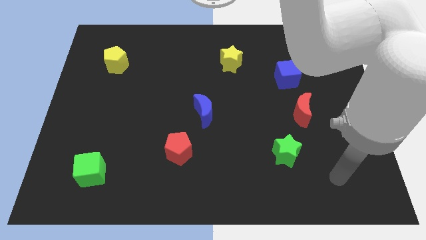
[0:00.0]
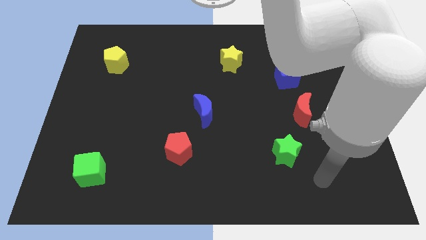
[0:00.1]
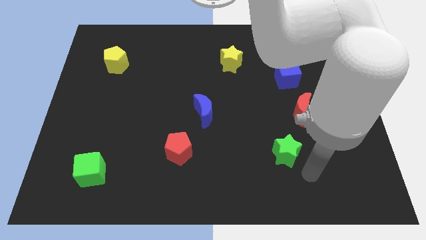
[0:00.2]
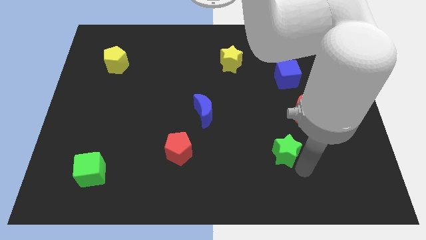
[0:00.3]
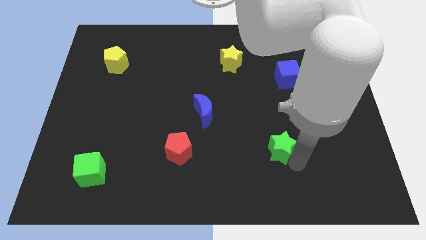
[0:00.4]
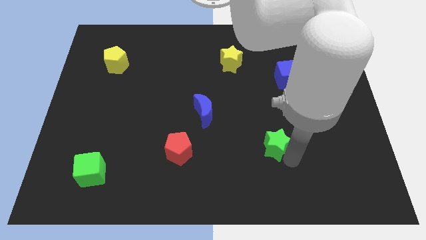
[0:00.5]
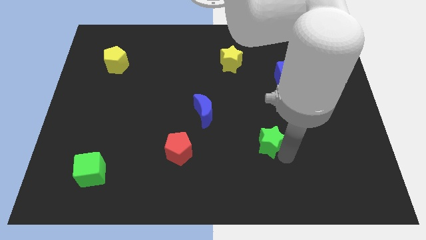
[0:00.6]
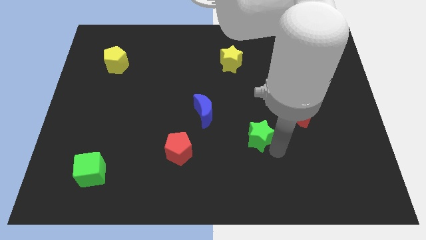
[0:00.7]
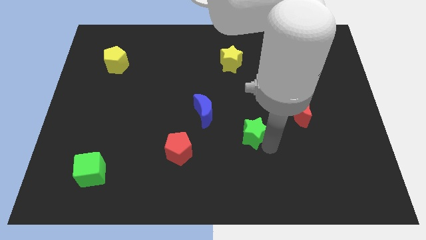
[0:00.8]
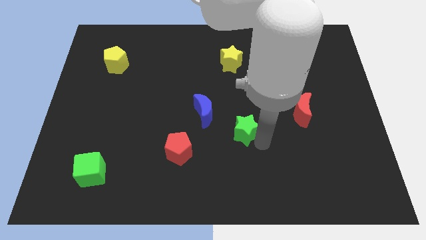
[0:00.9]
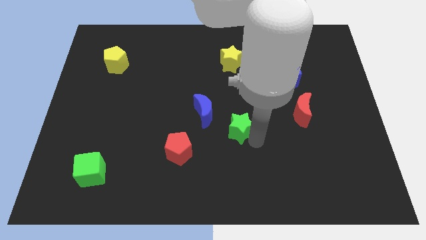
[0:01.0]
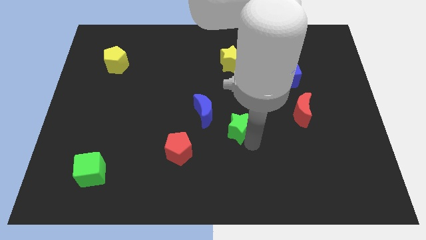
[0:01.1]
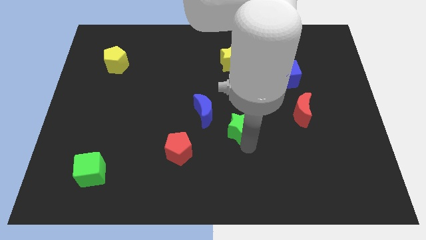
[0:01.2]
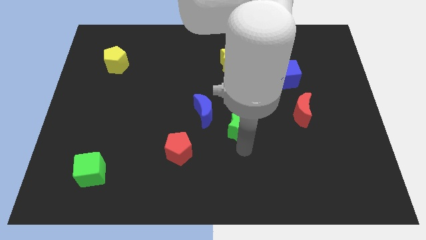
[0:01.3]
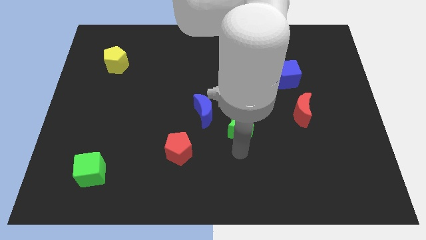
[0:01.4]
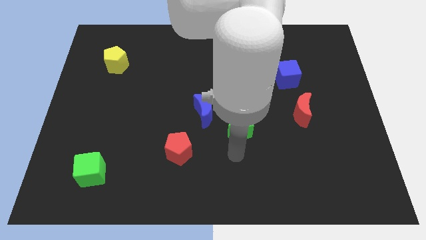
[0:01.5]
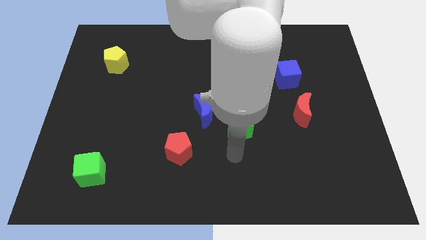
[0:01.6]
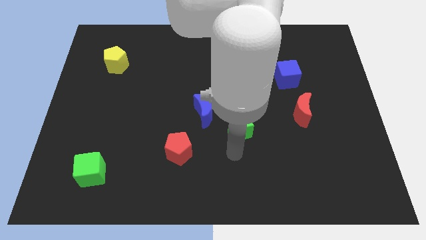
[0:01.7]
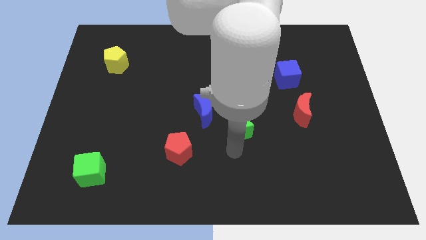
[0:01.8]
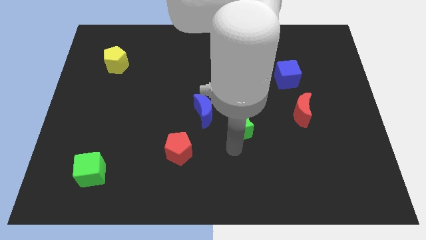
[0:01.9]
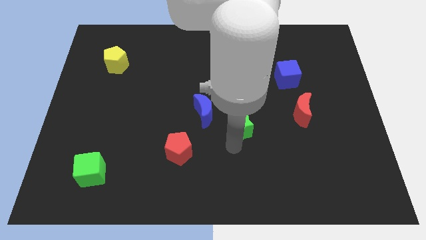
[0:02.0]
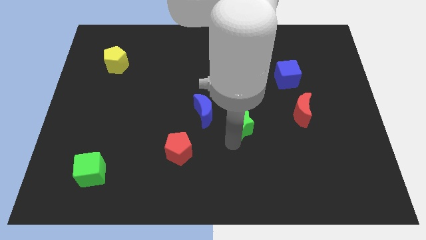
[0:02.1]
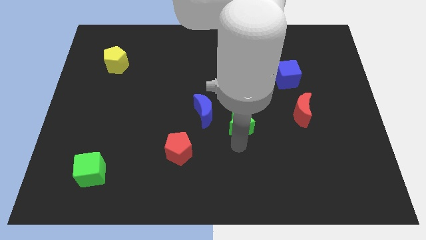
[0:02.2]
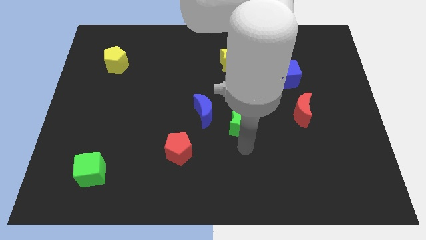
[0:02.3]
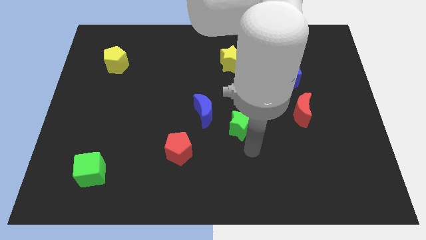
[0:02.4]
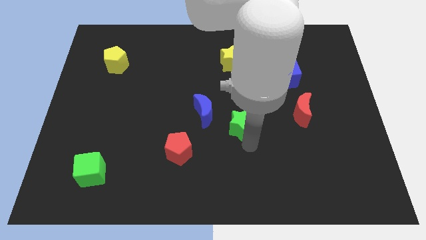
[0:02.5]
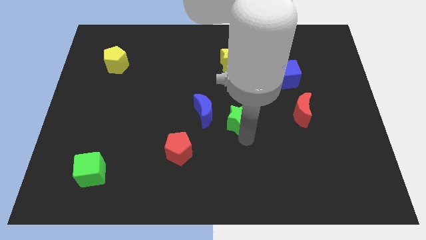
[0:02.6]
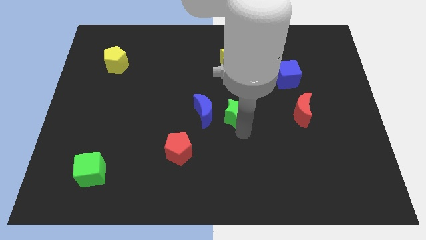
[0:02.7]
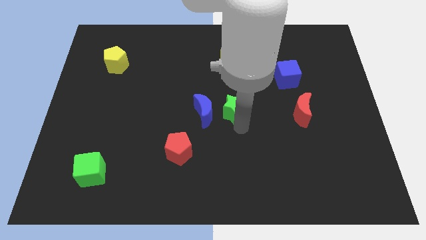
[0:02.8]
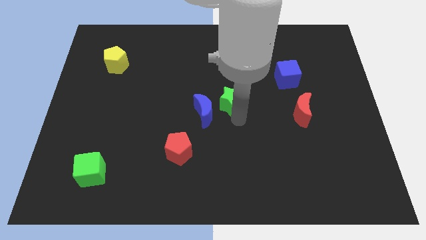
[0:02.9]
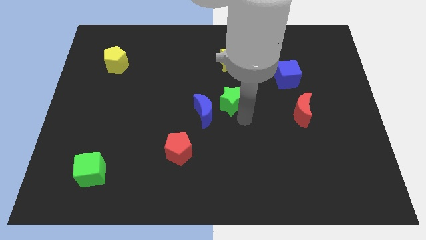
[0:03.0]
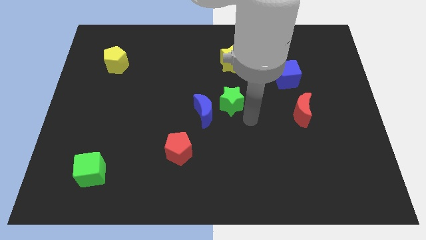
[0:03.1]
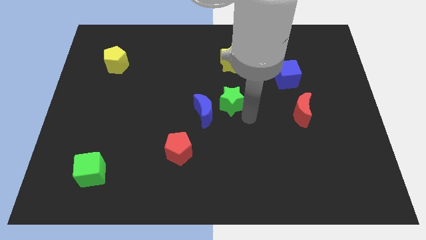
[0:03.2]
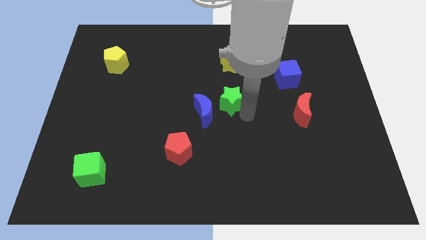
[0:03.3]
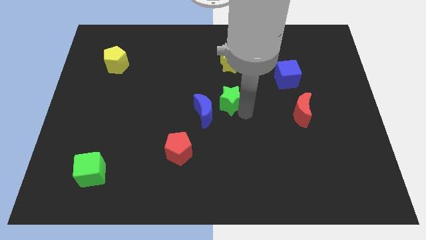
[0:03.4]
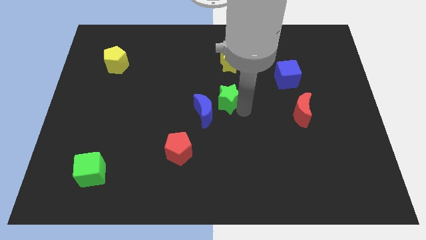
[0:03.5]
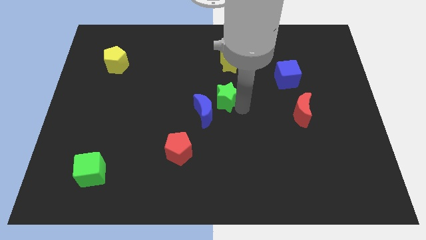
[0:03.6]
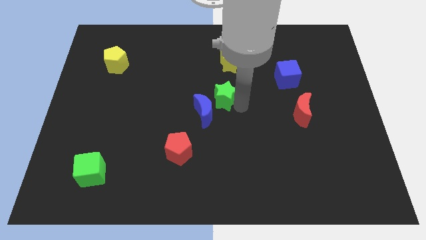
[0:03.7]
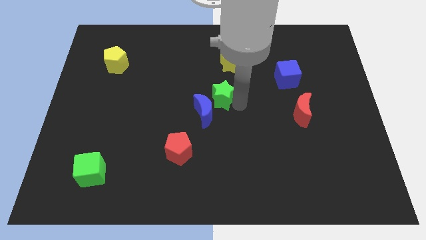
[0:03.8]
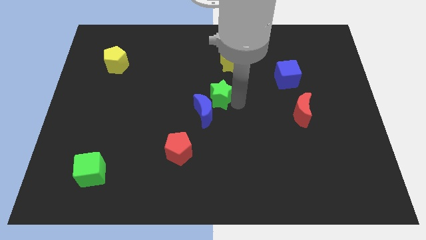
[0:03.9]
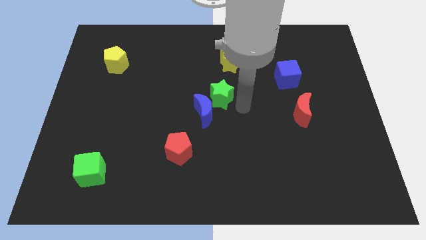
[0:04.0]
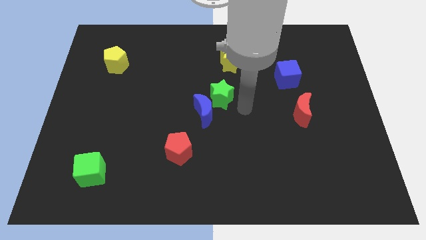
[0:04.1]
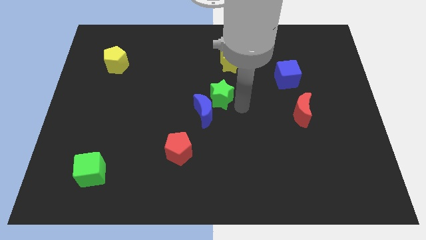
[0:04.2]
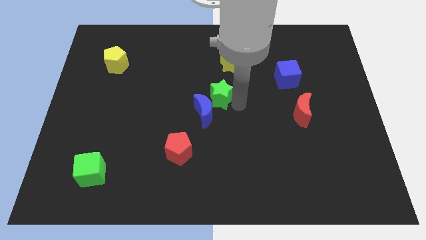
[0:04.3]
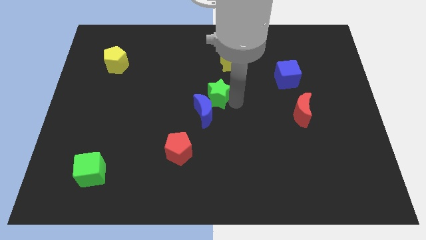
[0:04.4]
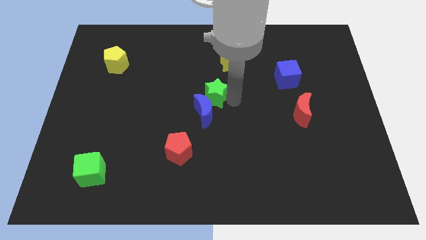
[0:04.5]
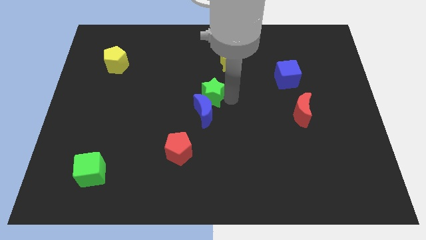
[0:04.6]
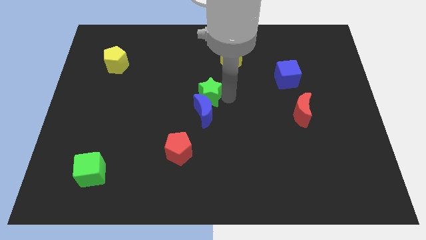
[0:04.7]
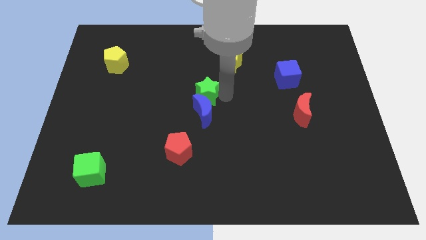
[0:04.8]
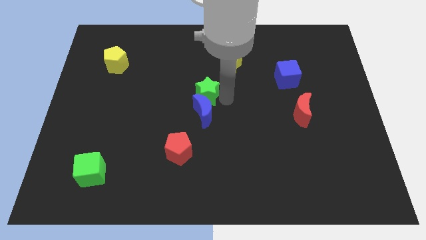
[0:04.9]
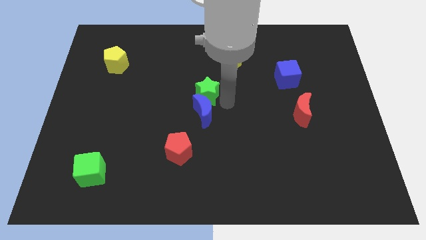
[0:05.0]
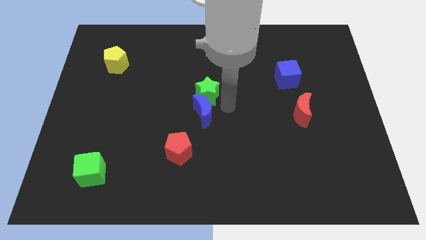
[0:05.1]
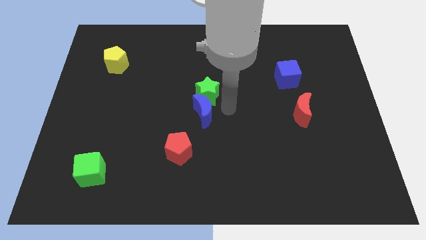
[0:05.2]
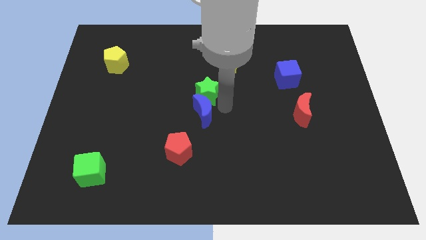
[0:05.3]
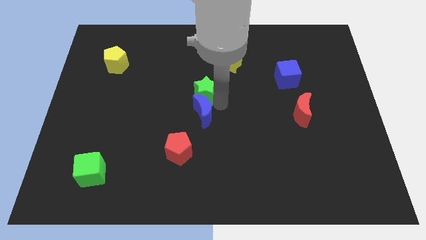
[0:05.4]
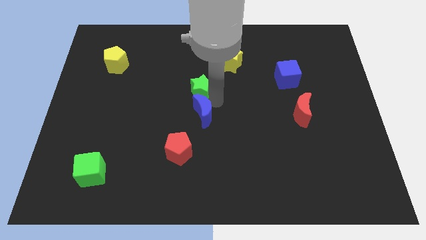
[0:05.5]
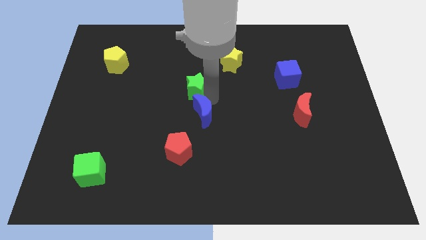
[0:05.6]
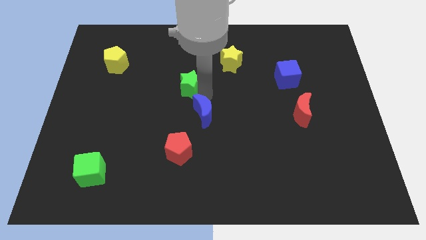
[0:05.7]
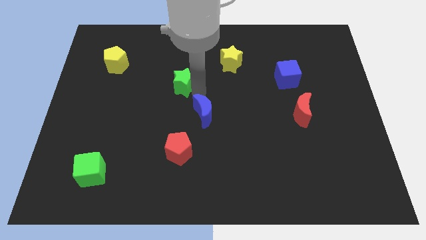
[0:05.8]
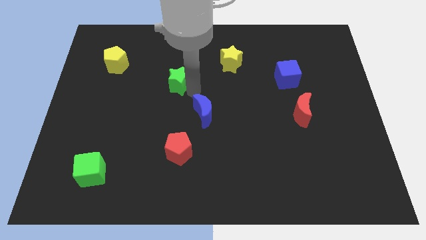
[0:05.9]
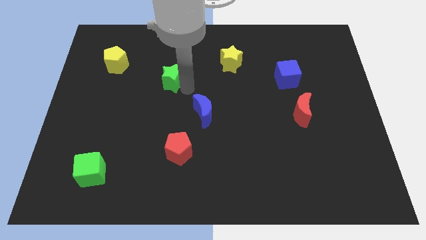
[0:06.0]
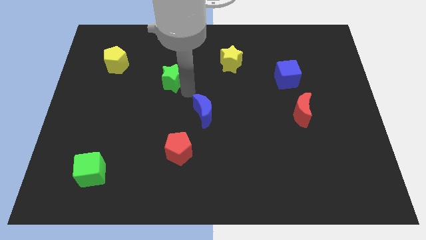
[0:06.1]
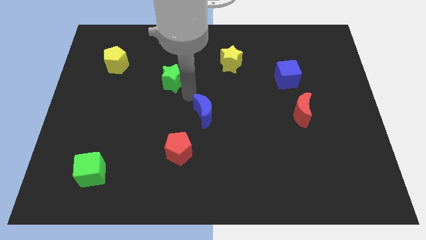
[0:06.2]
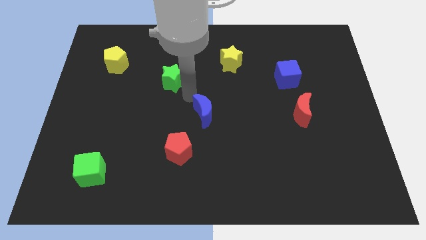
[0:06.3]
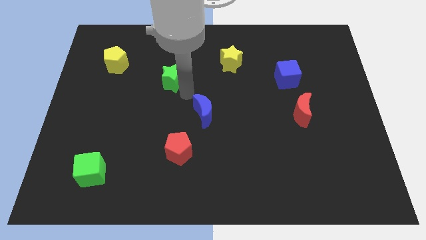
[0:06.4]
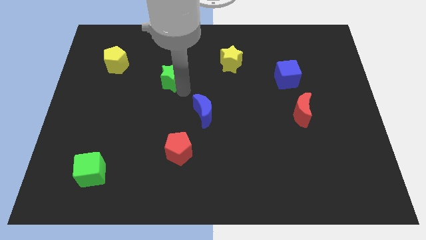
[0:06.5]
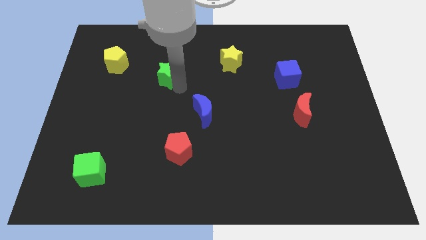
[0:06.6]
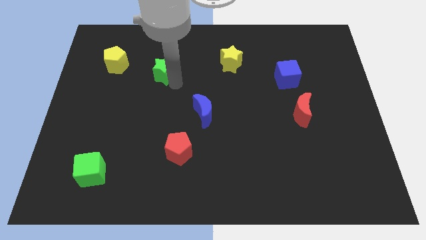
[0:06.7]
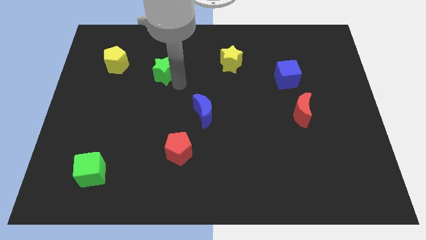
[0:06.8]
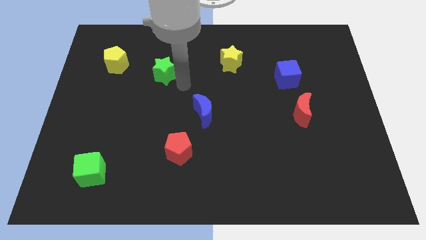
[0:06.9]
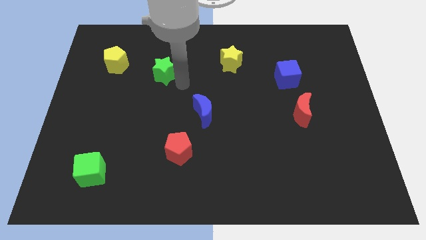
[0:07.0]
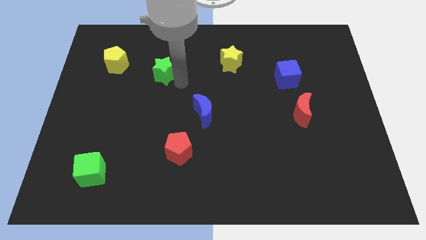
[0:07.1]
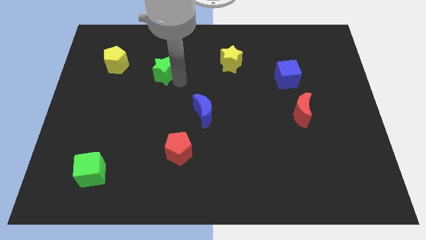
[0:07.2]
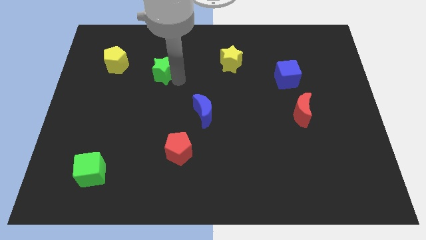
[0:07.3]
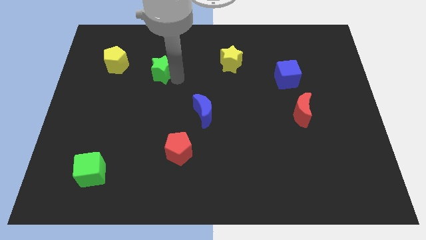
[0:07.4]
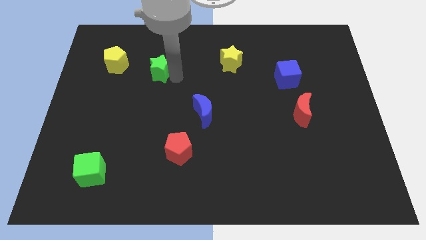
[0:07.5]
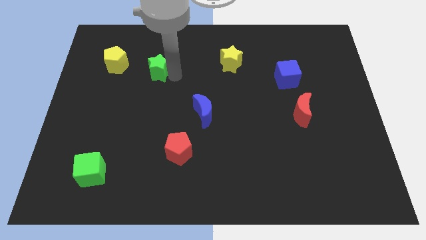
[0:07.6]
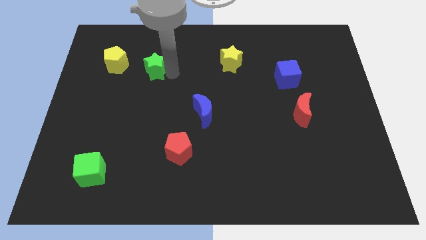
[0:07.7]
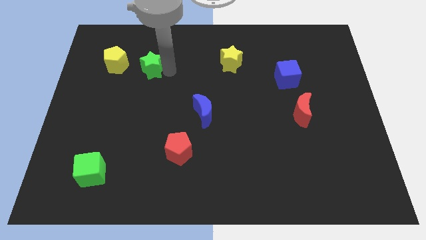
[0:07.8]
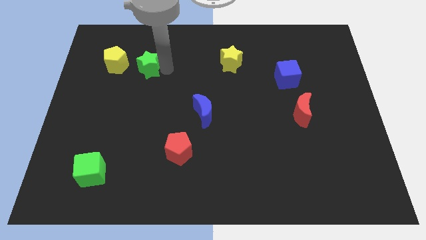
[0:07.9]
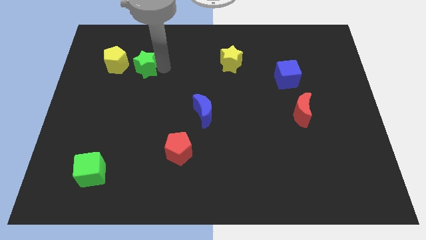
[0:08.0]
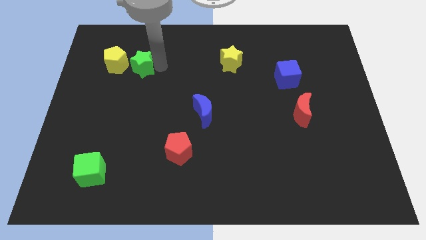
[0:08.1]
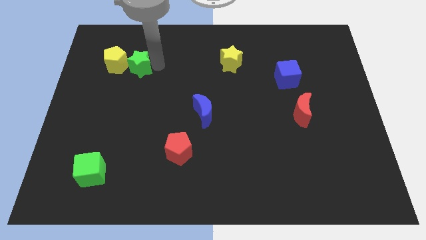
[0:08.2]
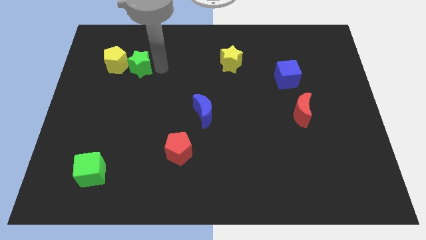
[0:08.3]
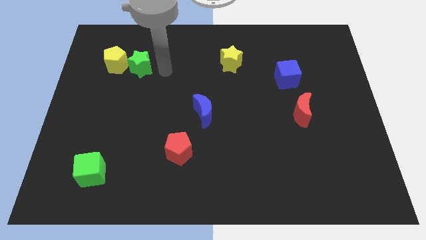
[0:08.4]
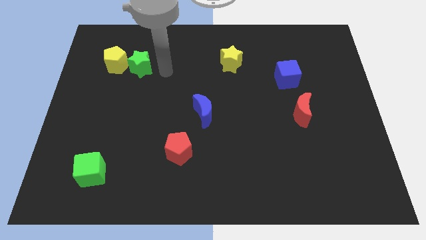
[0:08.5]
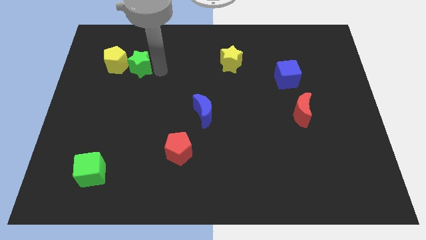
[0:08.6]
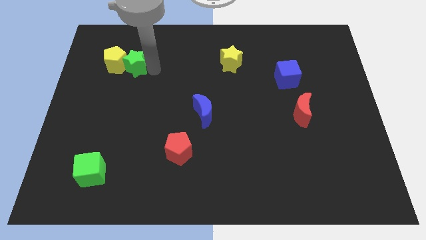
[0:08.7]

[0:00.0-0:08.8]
move the green star next to the yellow pentagon
